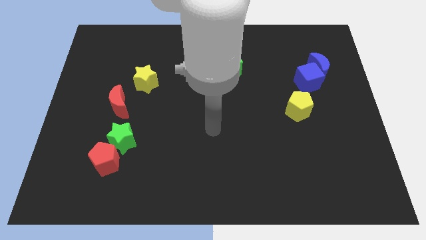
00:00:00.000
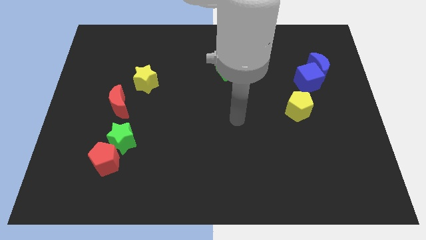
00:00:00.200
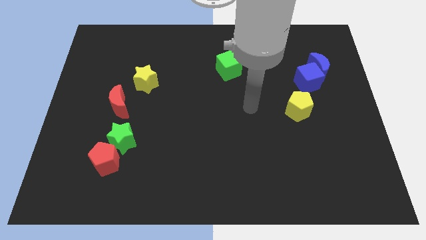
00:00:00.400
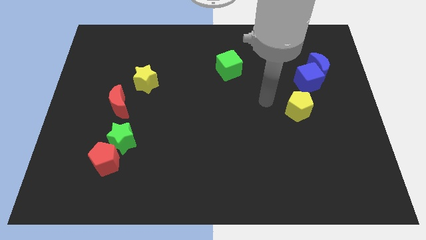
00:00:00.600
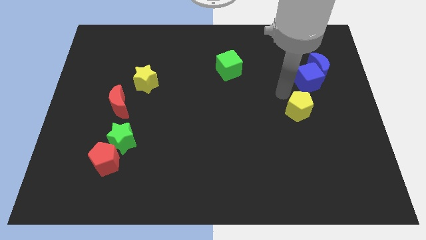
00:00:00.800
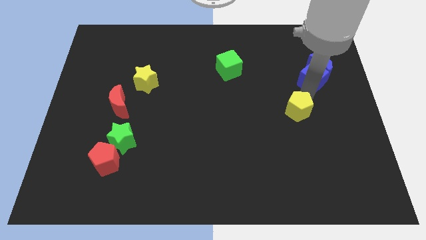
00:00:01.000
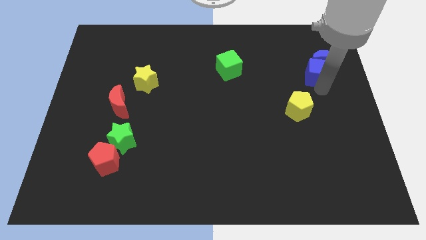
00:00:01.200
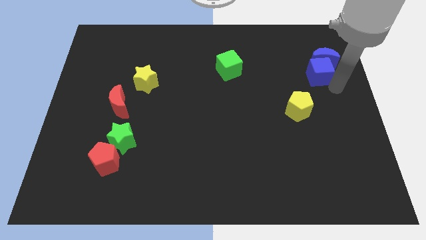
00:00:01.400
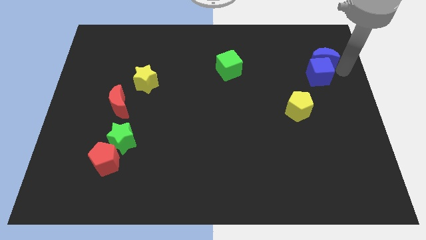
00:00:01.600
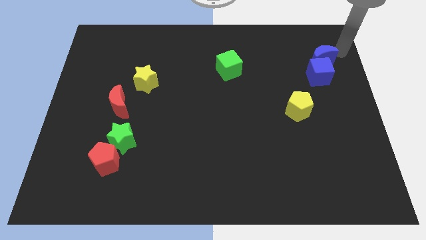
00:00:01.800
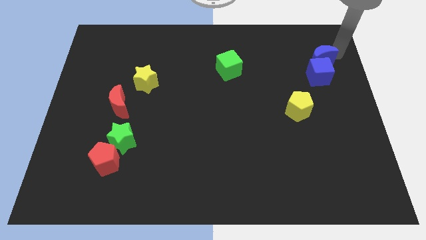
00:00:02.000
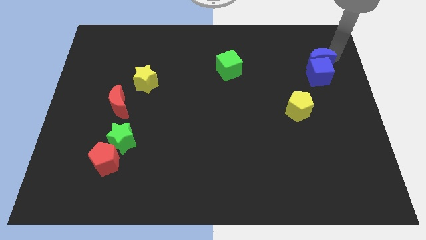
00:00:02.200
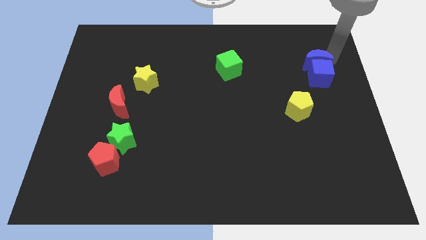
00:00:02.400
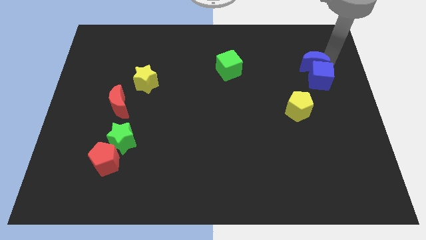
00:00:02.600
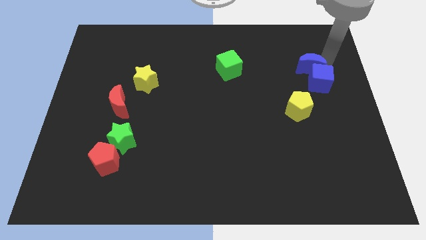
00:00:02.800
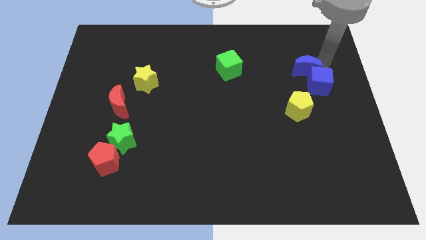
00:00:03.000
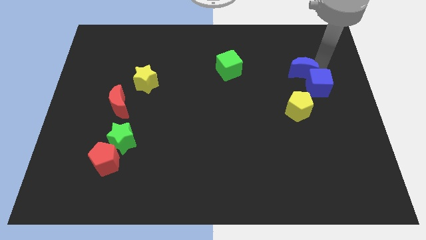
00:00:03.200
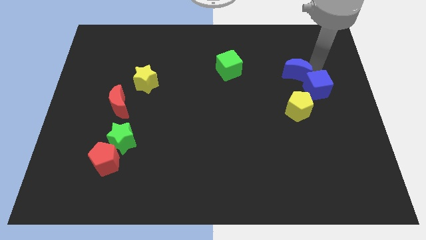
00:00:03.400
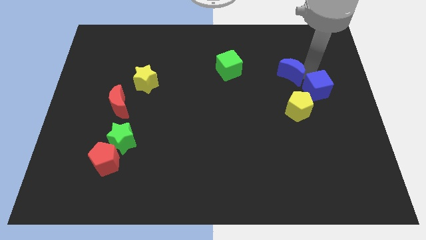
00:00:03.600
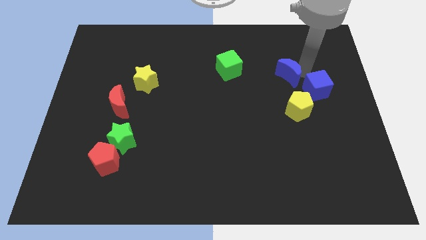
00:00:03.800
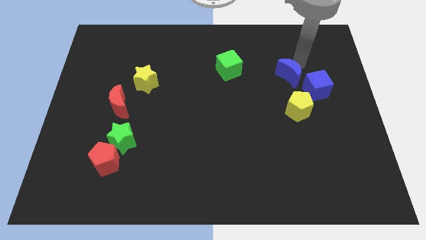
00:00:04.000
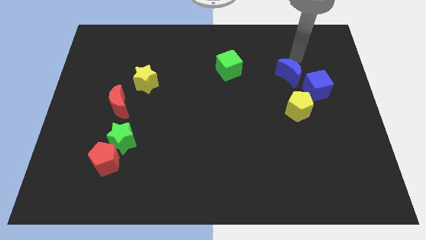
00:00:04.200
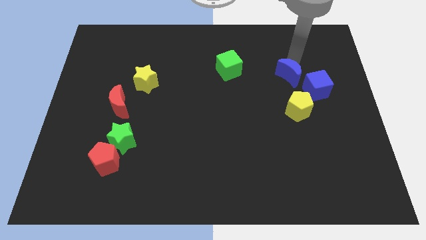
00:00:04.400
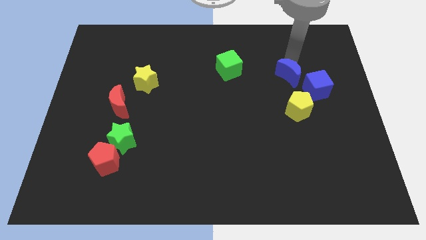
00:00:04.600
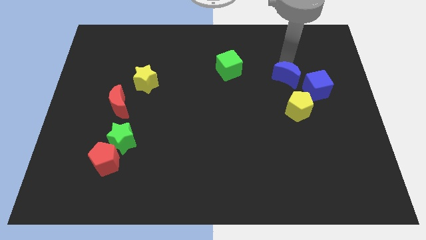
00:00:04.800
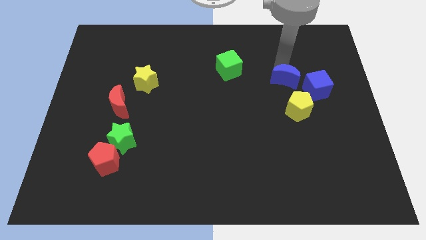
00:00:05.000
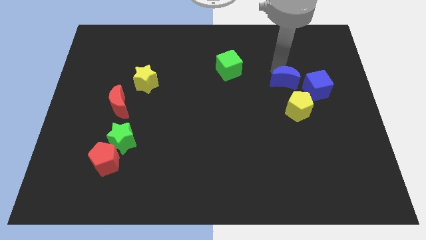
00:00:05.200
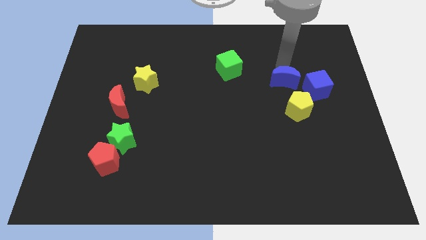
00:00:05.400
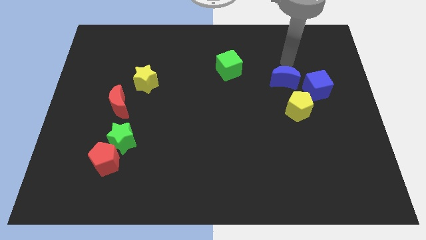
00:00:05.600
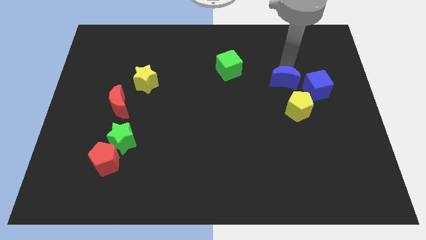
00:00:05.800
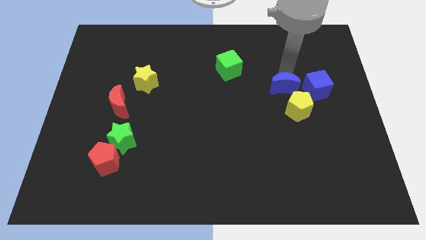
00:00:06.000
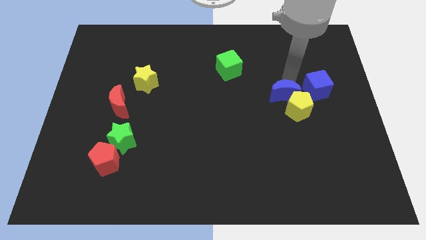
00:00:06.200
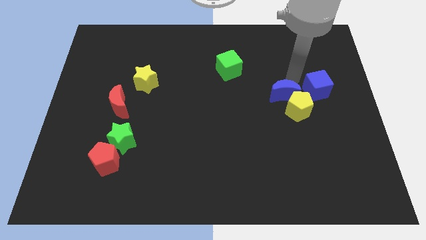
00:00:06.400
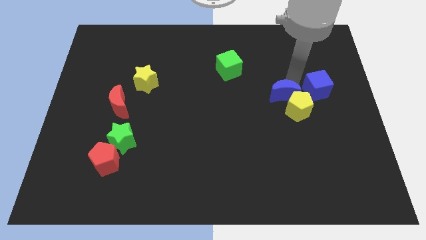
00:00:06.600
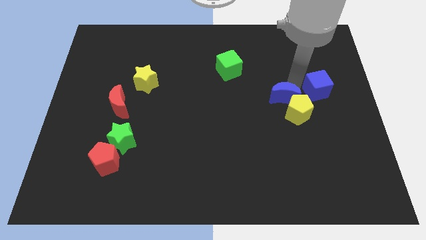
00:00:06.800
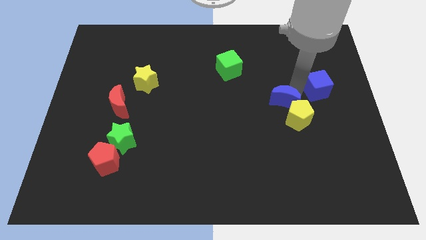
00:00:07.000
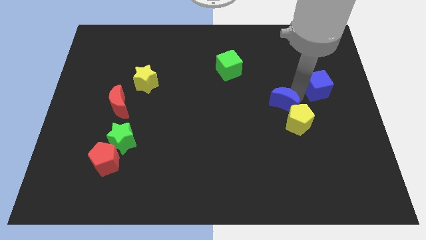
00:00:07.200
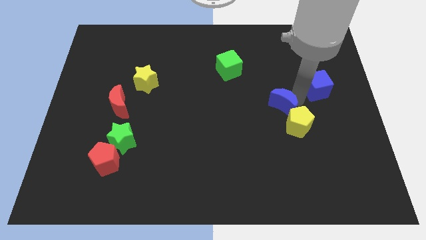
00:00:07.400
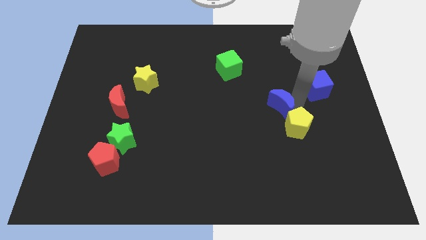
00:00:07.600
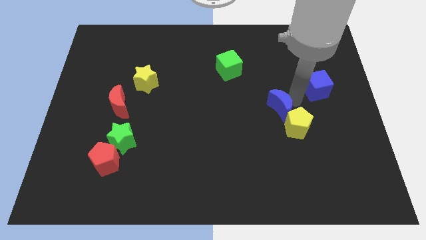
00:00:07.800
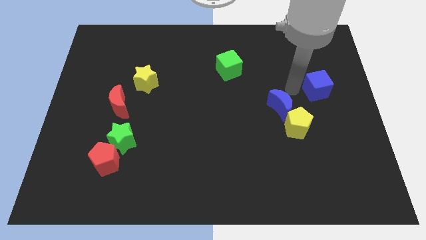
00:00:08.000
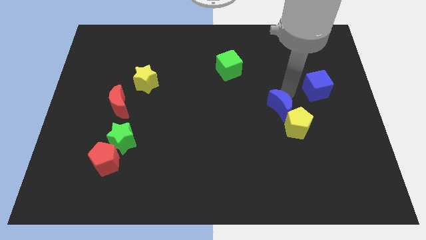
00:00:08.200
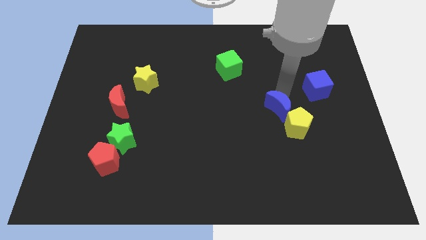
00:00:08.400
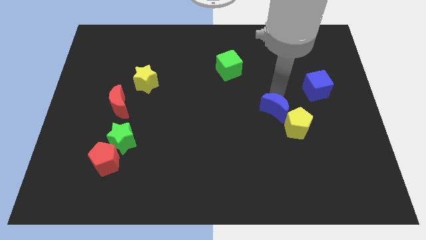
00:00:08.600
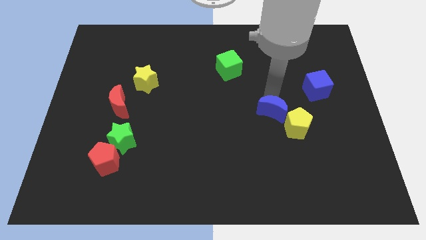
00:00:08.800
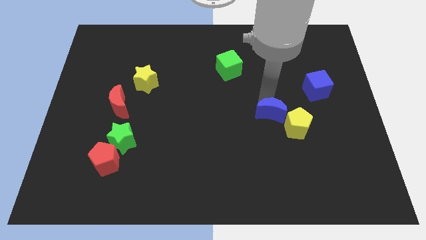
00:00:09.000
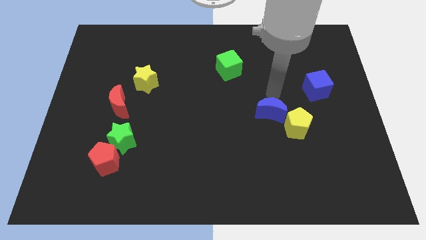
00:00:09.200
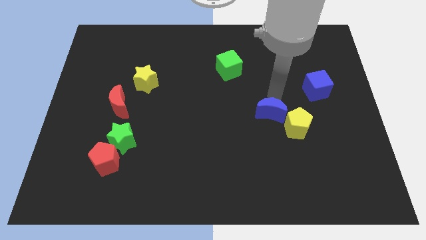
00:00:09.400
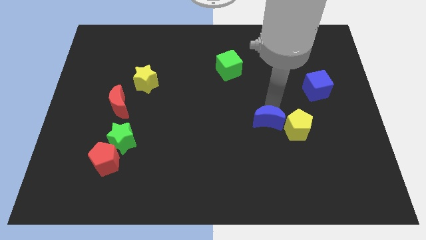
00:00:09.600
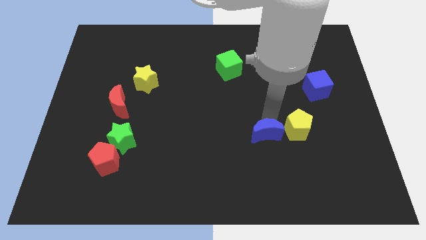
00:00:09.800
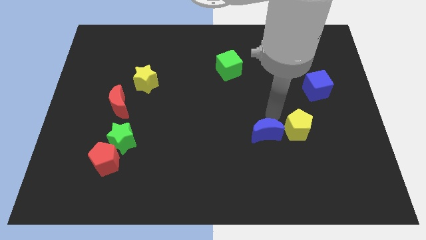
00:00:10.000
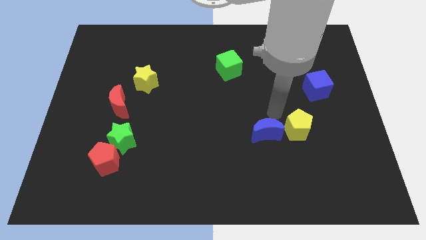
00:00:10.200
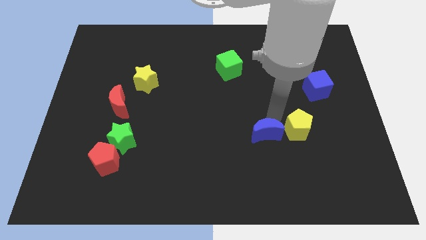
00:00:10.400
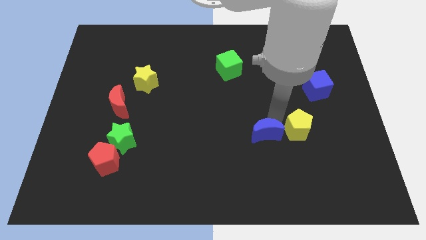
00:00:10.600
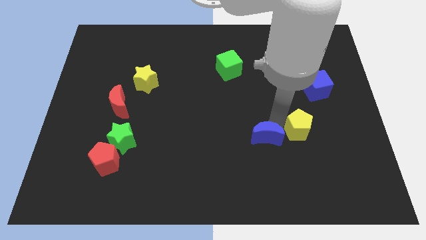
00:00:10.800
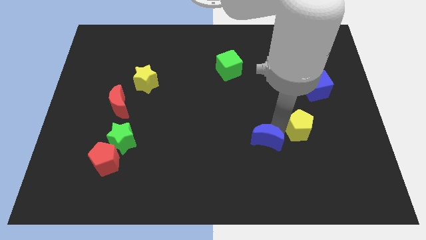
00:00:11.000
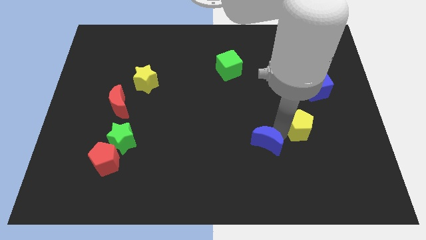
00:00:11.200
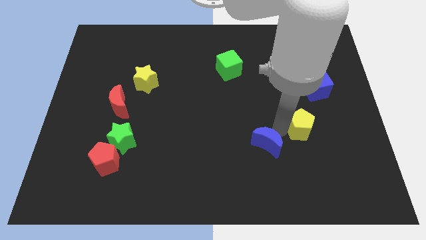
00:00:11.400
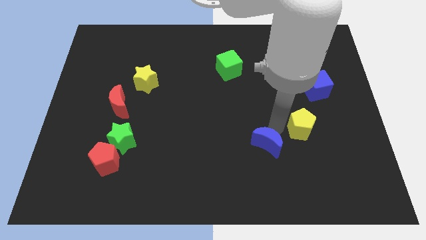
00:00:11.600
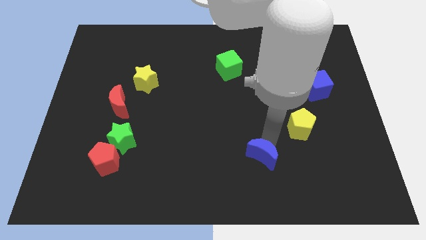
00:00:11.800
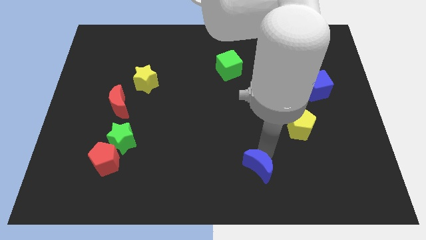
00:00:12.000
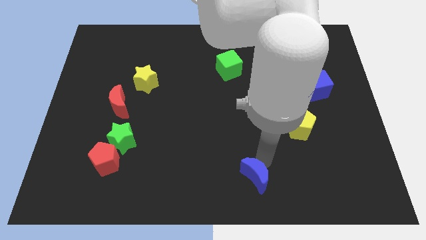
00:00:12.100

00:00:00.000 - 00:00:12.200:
push the blue moon to the bottom

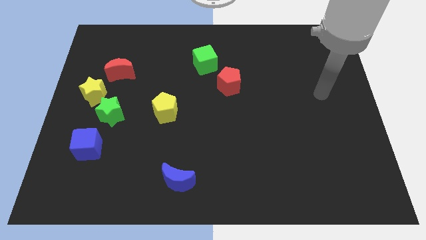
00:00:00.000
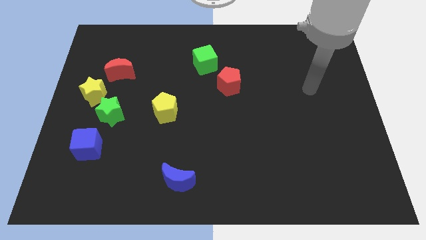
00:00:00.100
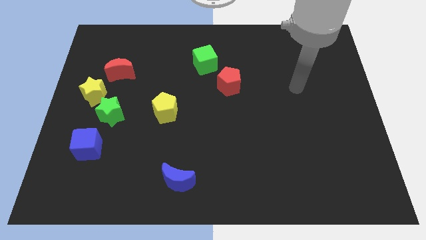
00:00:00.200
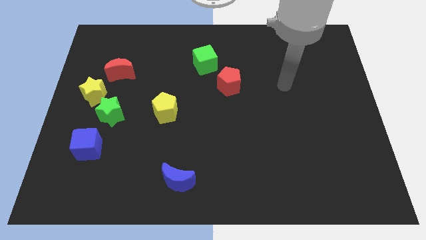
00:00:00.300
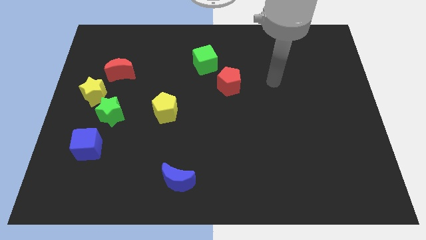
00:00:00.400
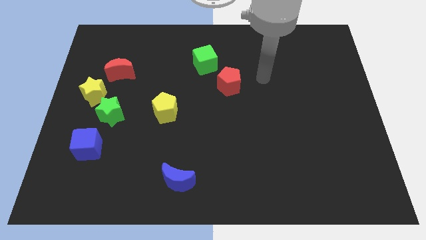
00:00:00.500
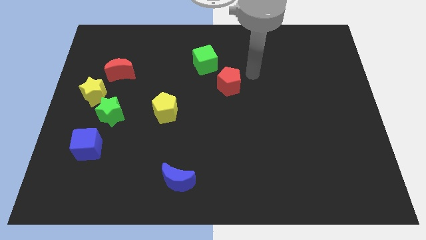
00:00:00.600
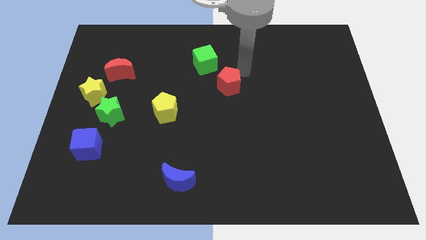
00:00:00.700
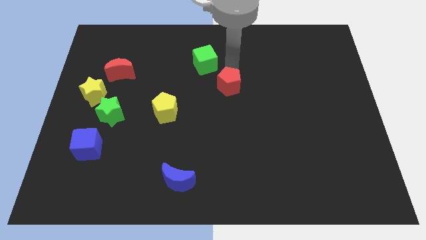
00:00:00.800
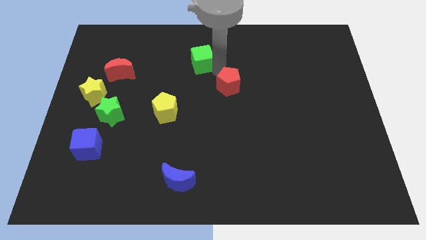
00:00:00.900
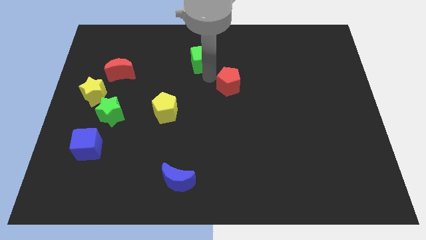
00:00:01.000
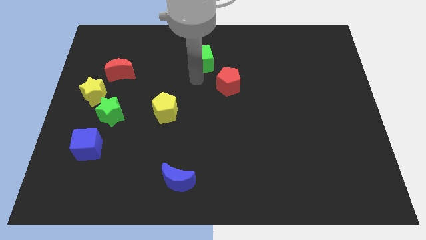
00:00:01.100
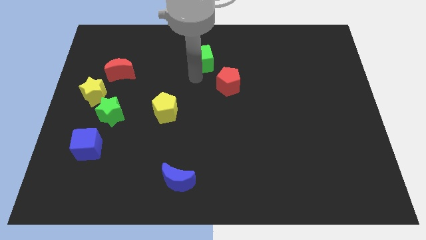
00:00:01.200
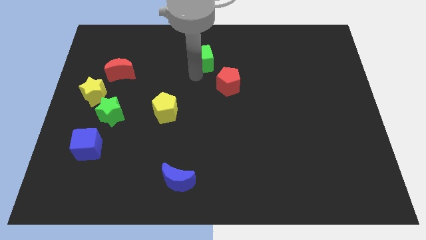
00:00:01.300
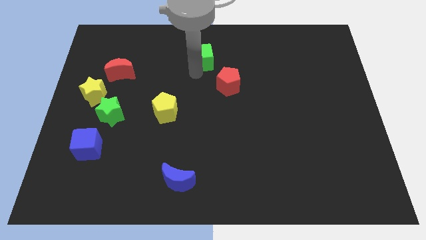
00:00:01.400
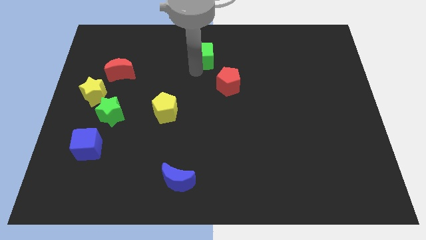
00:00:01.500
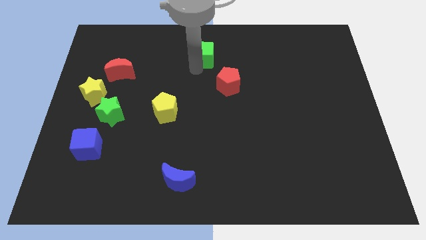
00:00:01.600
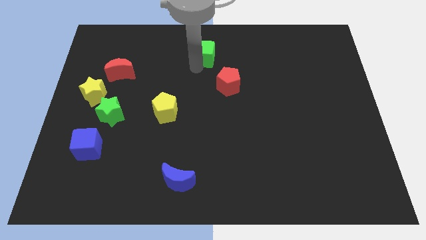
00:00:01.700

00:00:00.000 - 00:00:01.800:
slide the green cube to the towards your base

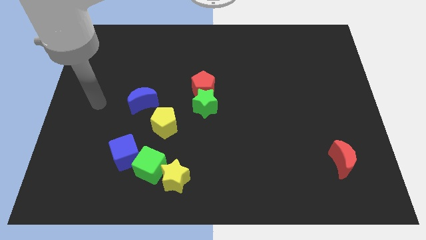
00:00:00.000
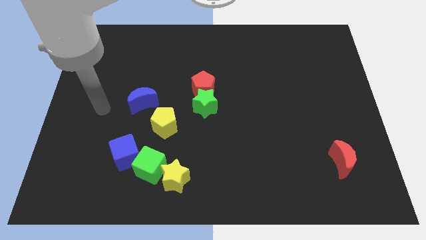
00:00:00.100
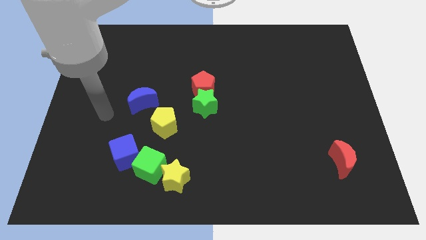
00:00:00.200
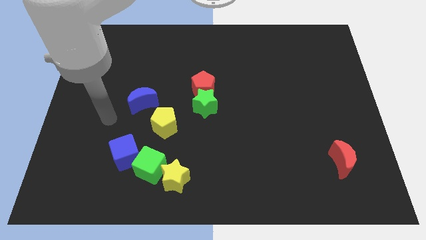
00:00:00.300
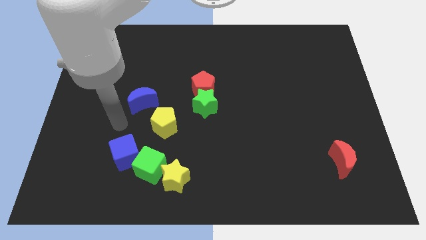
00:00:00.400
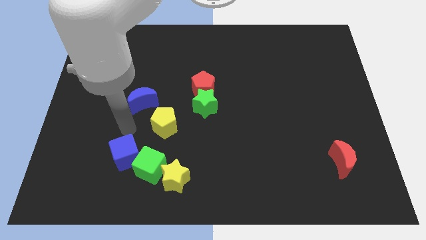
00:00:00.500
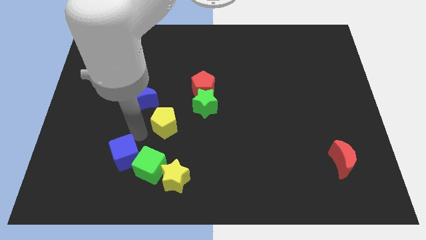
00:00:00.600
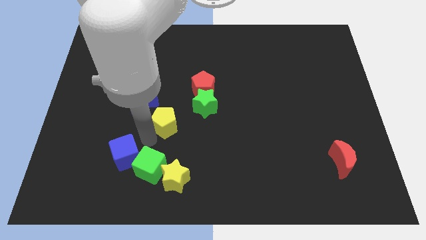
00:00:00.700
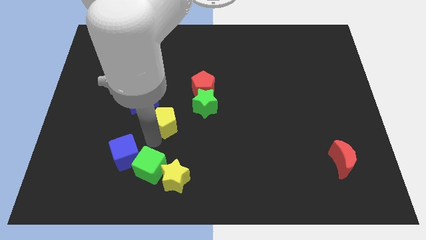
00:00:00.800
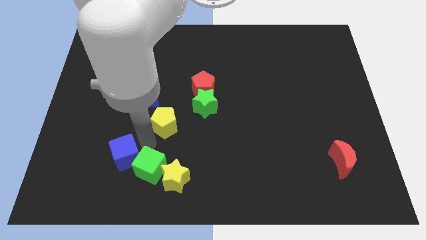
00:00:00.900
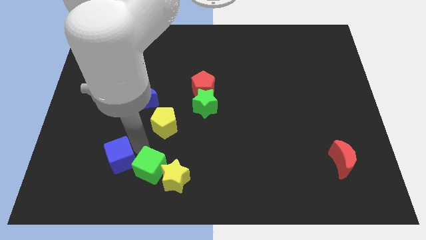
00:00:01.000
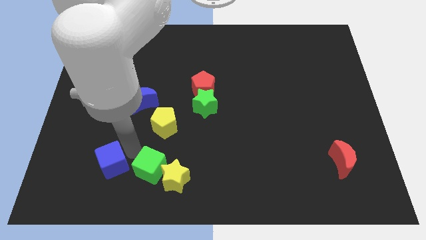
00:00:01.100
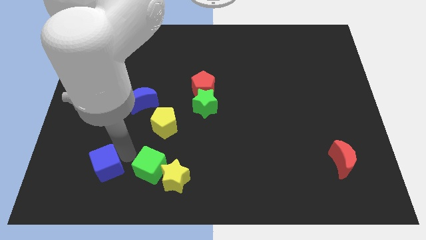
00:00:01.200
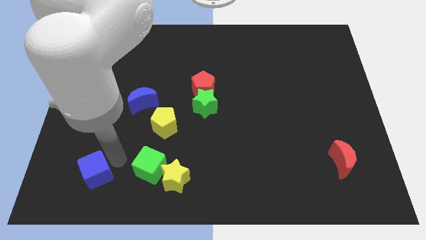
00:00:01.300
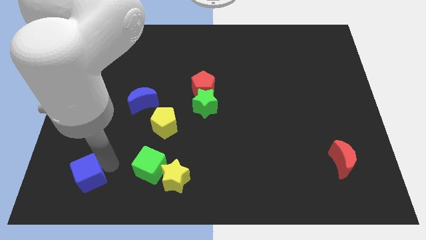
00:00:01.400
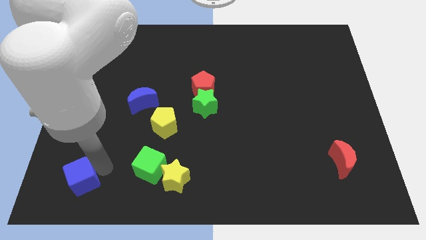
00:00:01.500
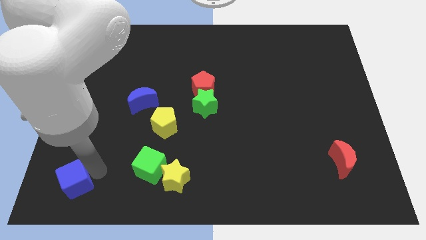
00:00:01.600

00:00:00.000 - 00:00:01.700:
push the blue cube to the bottom left of the board
